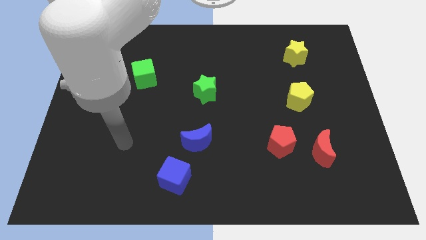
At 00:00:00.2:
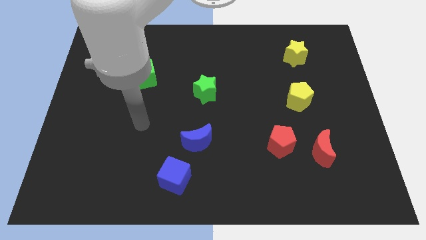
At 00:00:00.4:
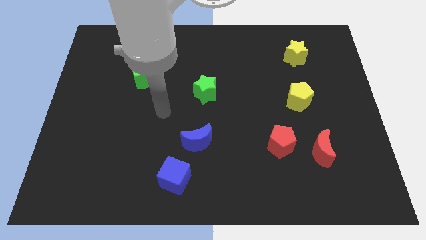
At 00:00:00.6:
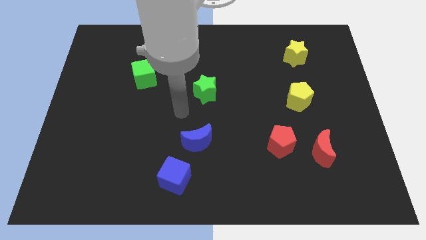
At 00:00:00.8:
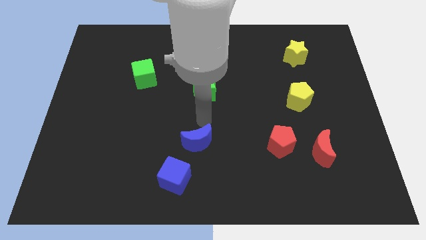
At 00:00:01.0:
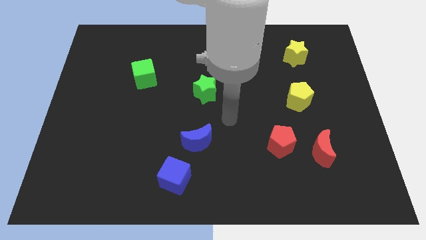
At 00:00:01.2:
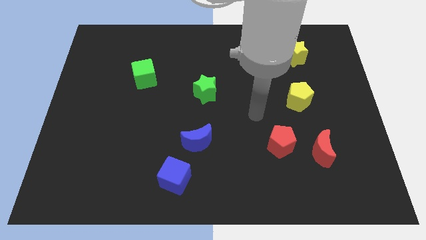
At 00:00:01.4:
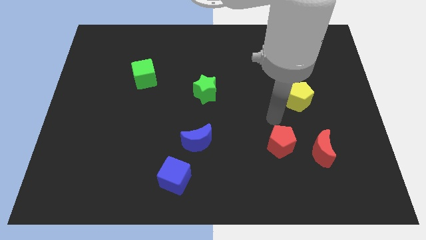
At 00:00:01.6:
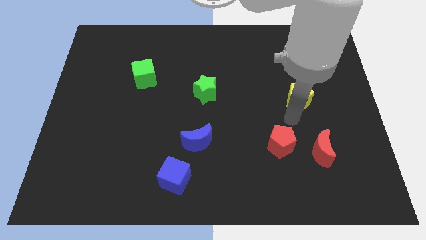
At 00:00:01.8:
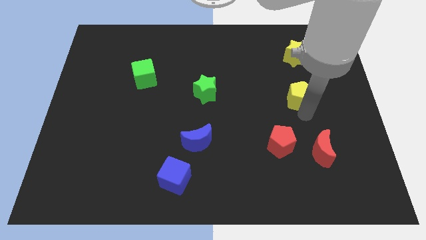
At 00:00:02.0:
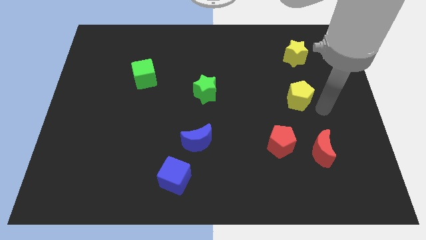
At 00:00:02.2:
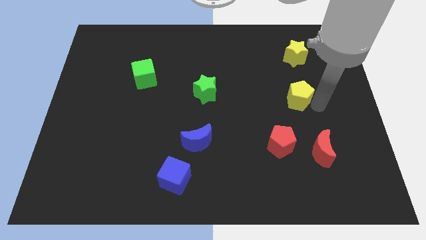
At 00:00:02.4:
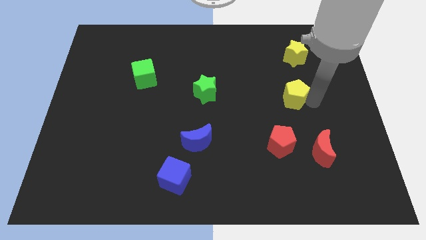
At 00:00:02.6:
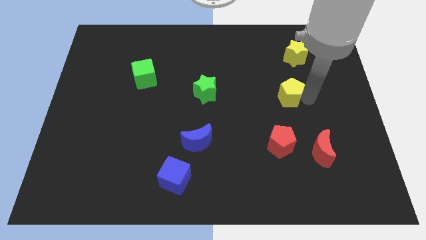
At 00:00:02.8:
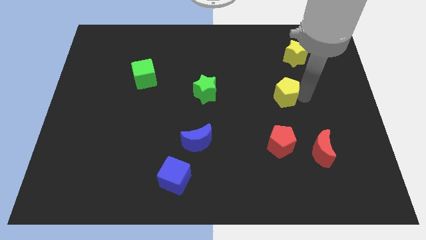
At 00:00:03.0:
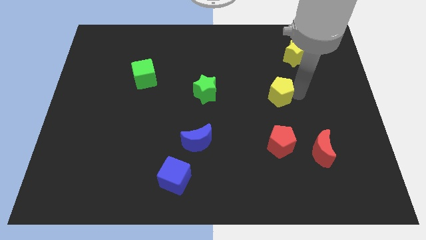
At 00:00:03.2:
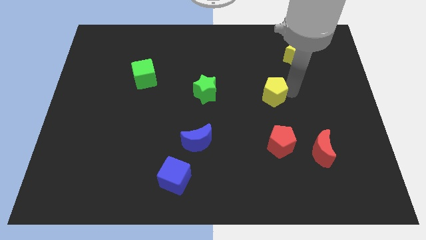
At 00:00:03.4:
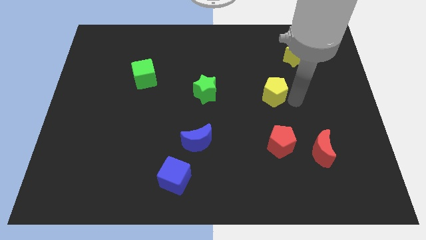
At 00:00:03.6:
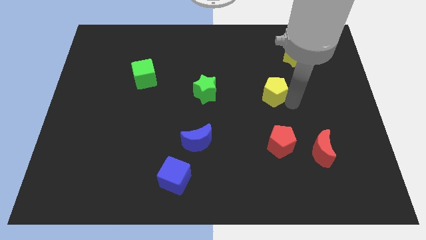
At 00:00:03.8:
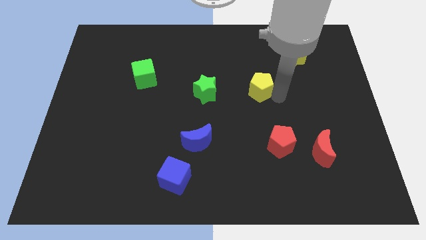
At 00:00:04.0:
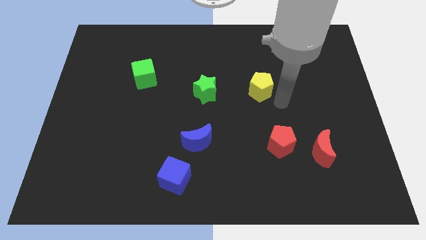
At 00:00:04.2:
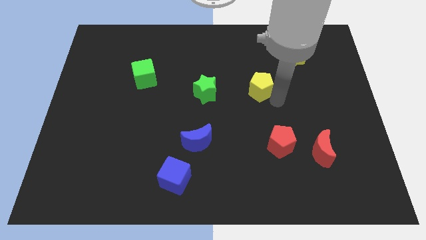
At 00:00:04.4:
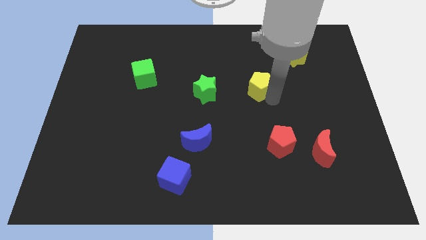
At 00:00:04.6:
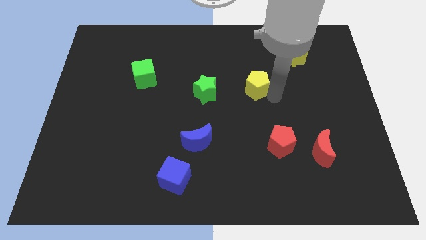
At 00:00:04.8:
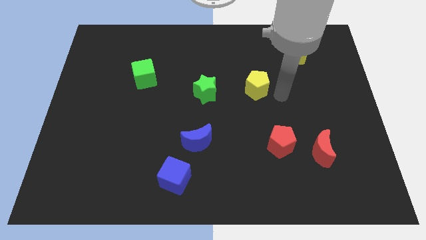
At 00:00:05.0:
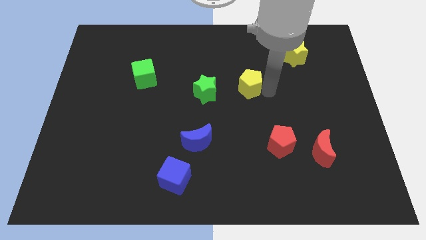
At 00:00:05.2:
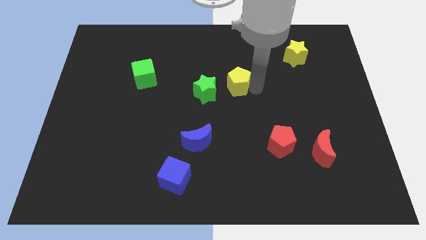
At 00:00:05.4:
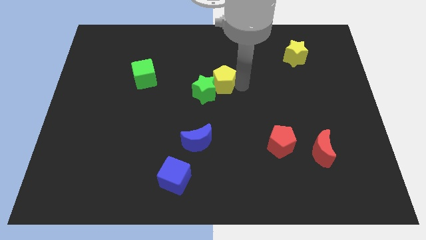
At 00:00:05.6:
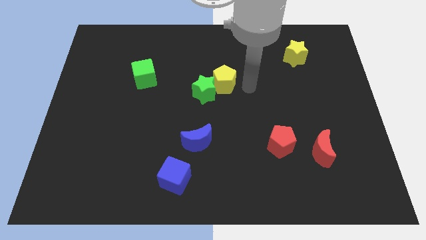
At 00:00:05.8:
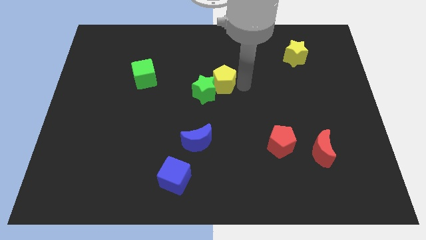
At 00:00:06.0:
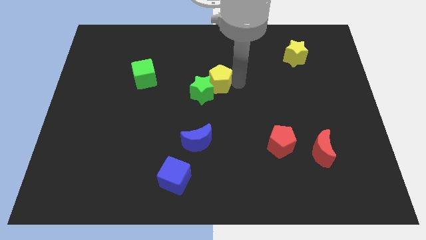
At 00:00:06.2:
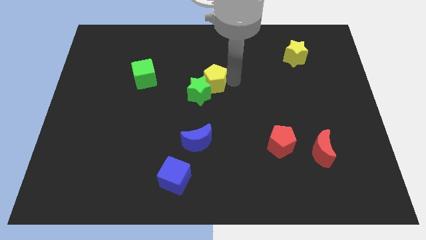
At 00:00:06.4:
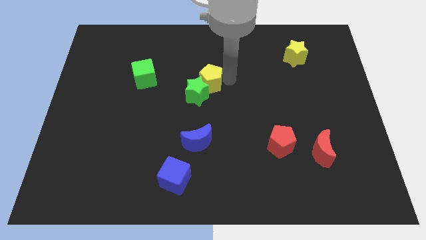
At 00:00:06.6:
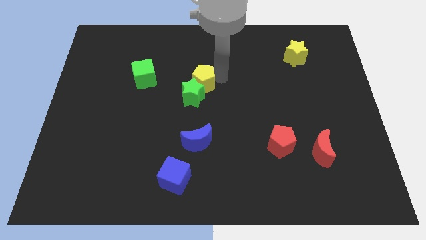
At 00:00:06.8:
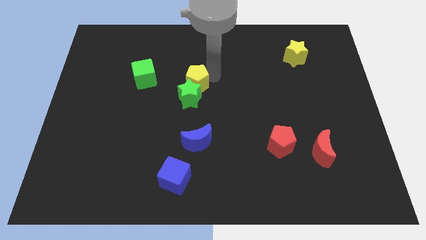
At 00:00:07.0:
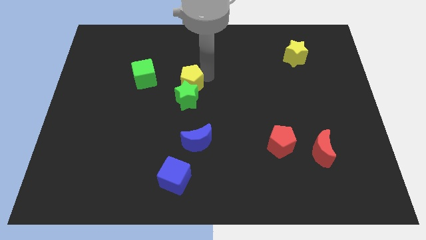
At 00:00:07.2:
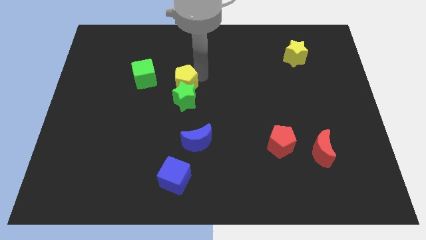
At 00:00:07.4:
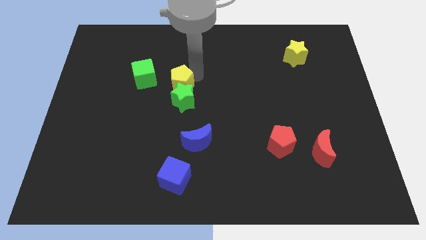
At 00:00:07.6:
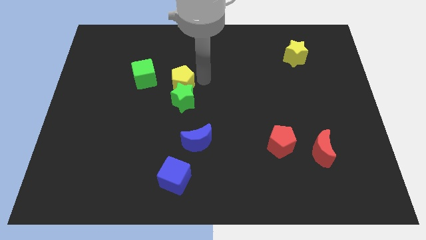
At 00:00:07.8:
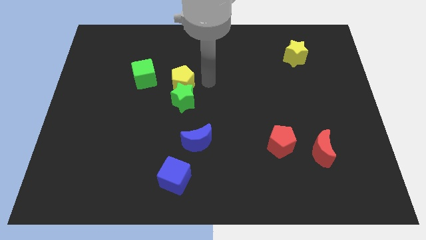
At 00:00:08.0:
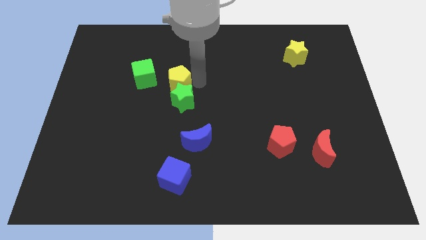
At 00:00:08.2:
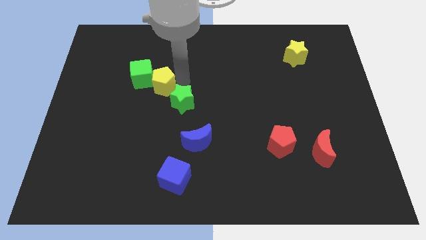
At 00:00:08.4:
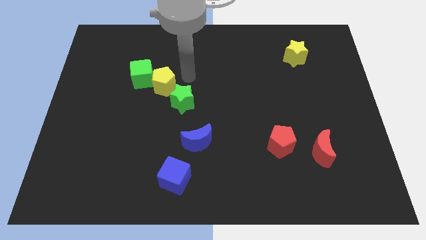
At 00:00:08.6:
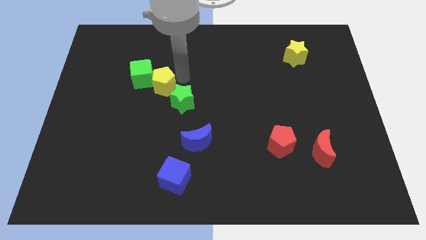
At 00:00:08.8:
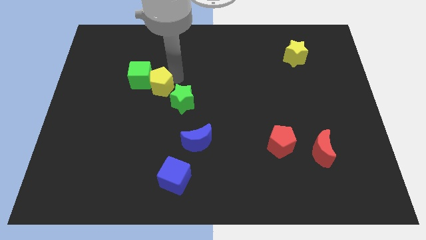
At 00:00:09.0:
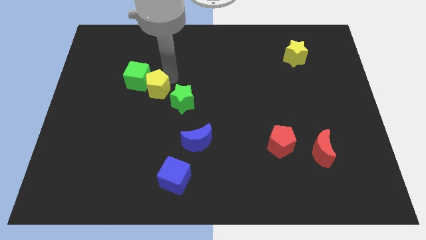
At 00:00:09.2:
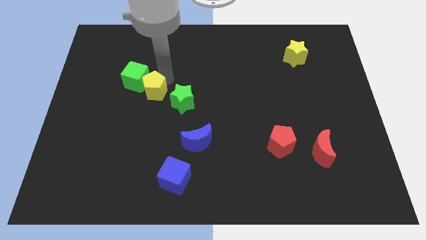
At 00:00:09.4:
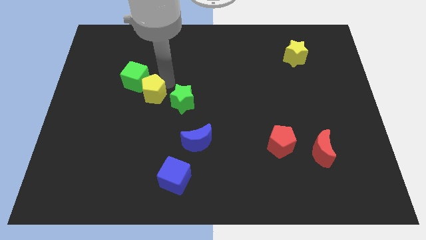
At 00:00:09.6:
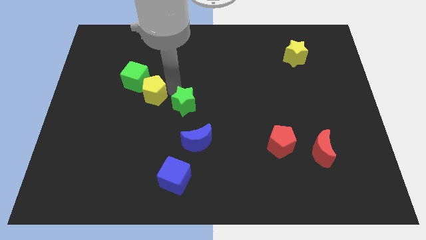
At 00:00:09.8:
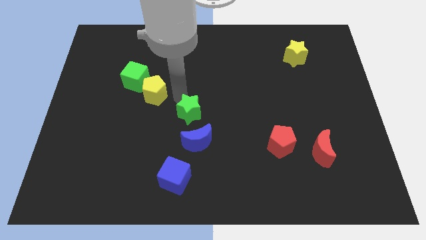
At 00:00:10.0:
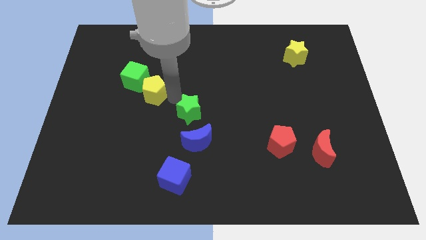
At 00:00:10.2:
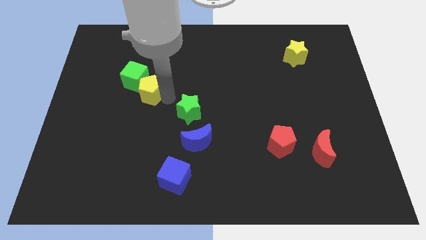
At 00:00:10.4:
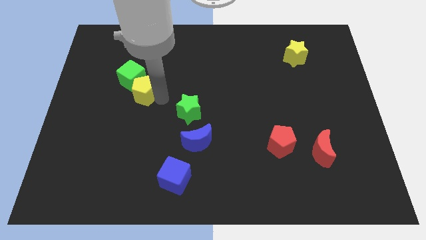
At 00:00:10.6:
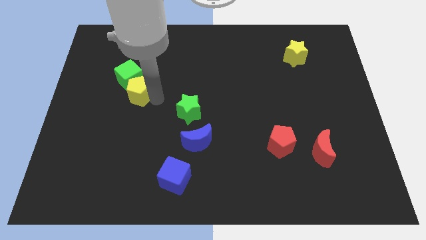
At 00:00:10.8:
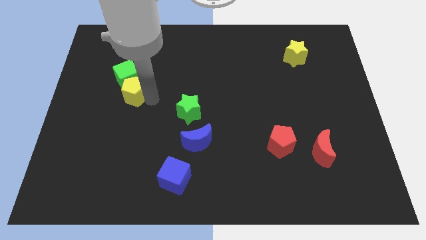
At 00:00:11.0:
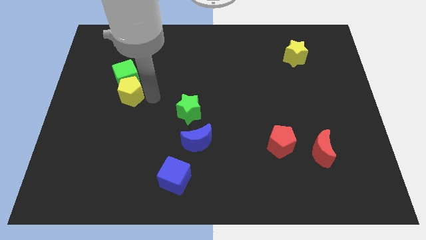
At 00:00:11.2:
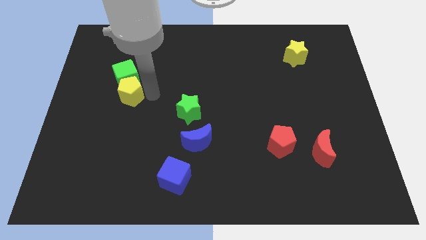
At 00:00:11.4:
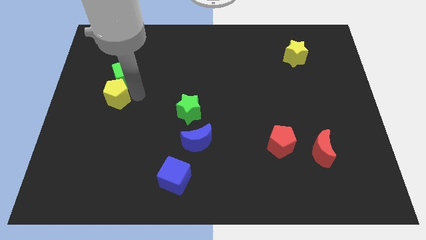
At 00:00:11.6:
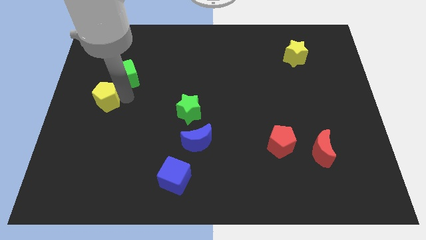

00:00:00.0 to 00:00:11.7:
slide the yellow pentagon to the left side of the board
